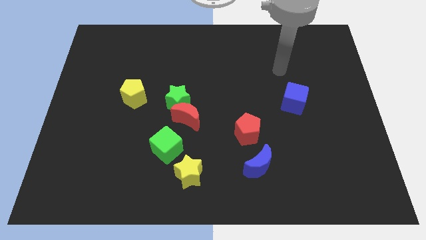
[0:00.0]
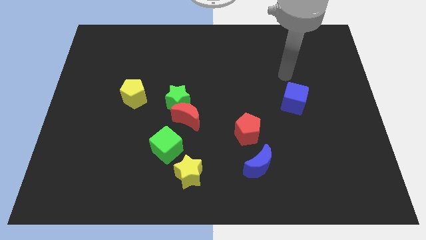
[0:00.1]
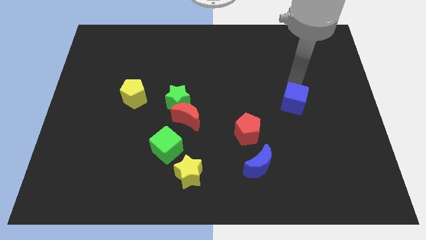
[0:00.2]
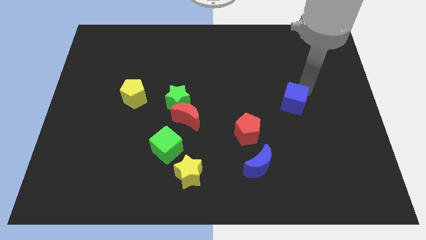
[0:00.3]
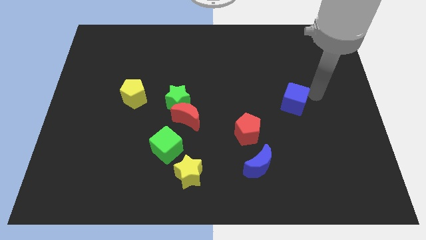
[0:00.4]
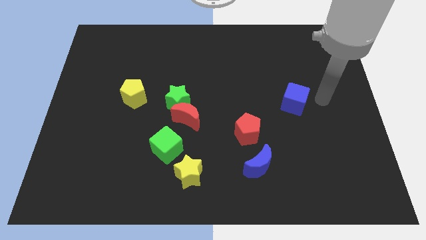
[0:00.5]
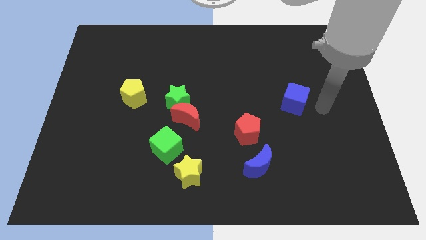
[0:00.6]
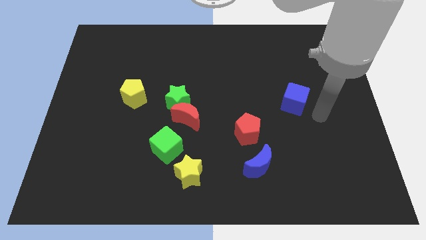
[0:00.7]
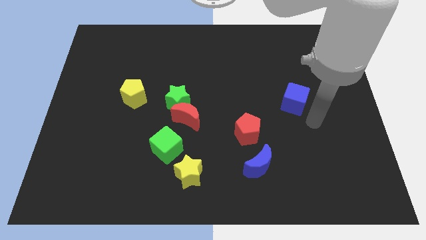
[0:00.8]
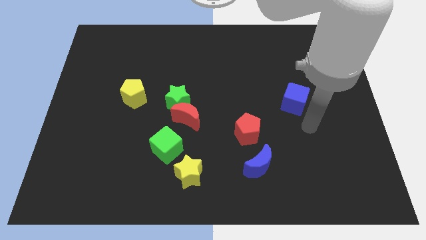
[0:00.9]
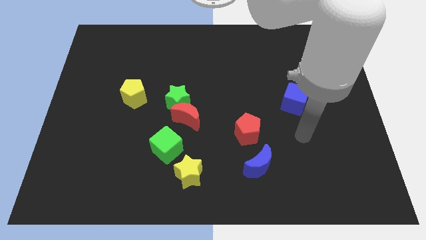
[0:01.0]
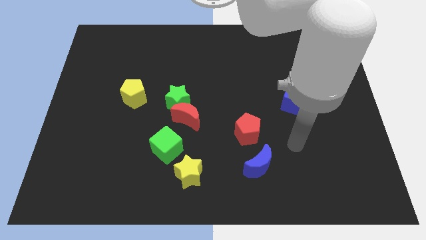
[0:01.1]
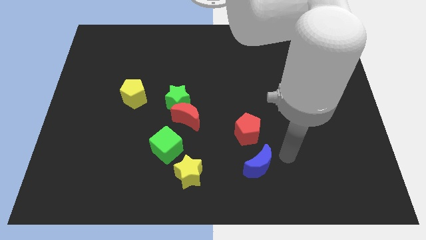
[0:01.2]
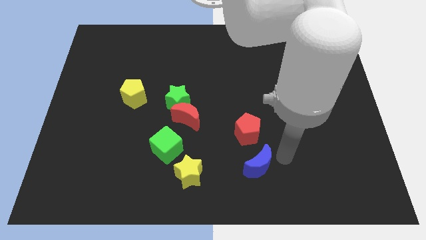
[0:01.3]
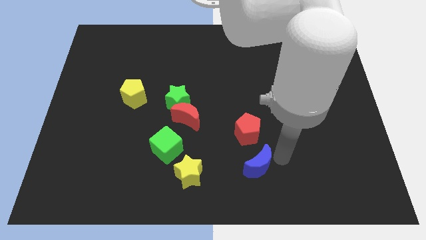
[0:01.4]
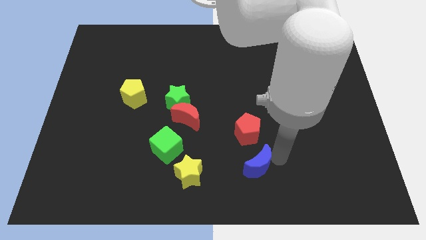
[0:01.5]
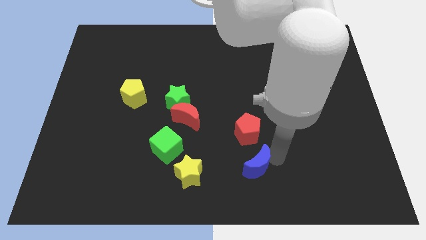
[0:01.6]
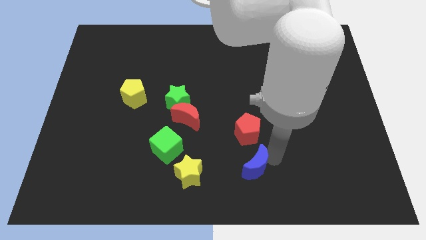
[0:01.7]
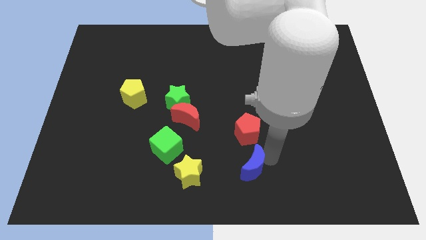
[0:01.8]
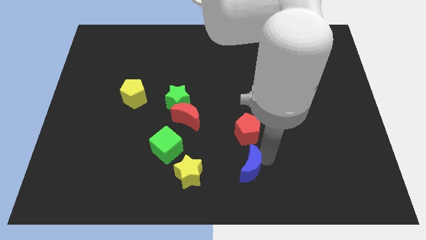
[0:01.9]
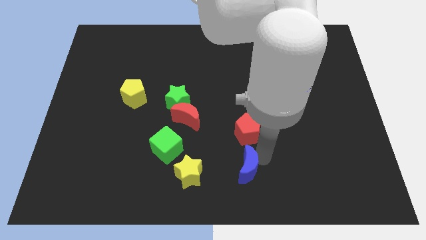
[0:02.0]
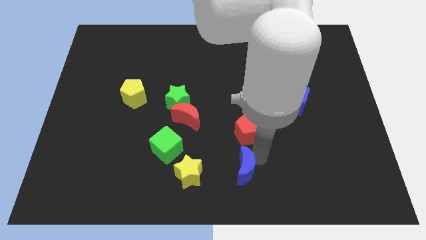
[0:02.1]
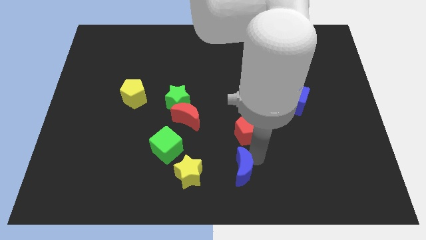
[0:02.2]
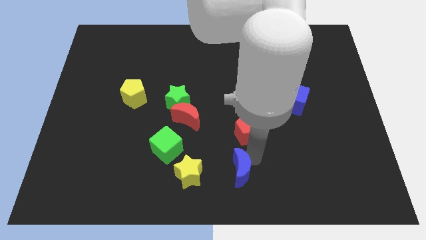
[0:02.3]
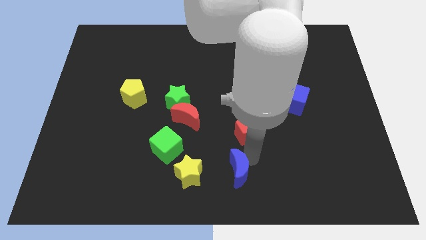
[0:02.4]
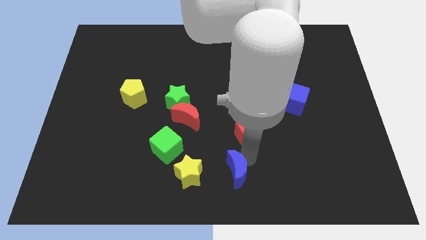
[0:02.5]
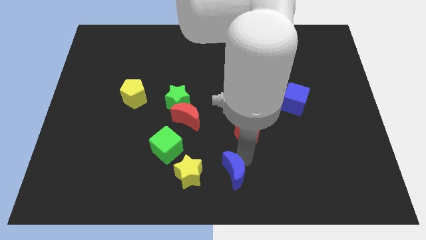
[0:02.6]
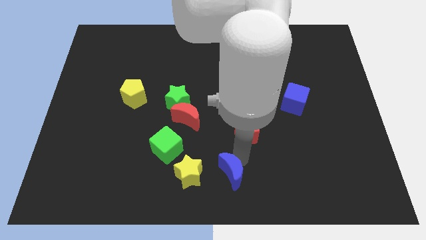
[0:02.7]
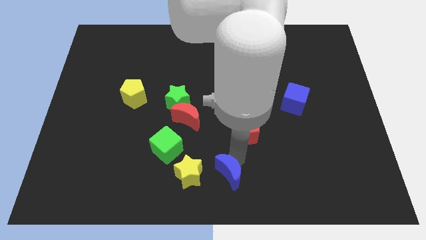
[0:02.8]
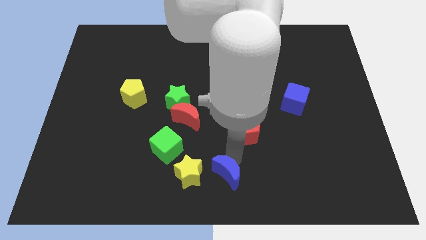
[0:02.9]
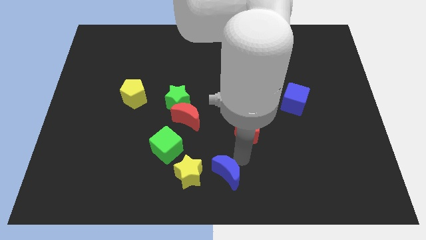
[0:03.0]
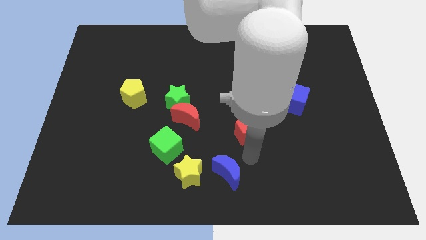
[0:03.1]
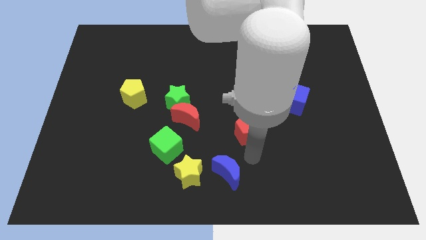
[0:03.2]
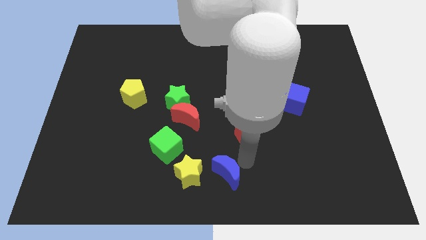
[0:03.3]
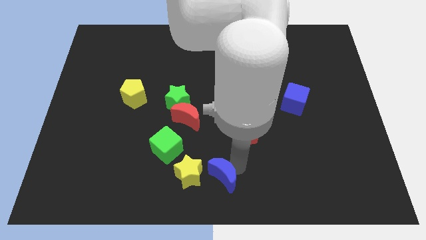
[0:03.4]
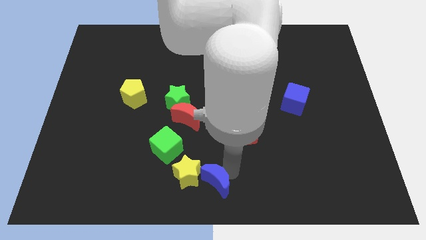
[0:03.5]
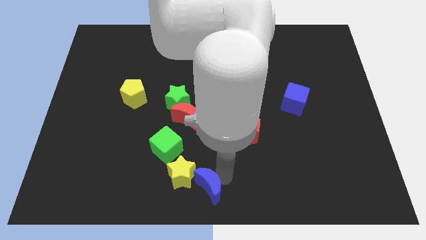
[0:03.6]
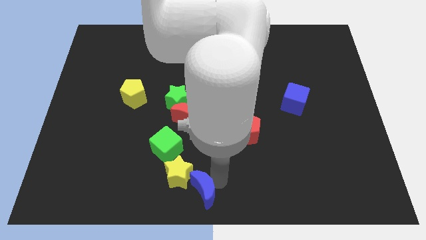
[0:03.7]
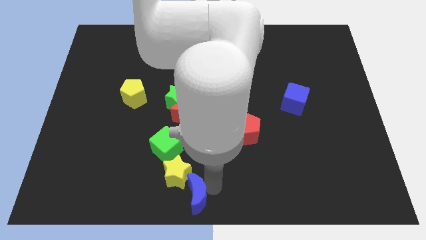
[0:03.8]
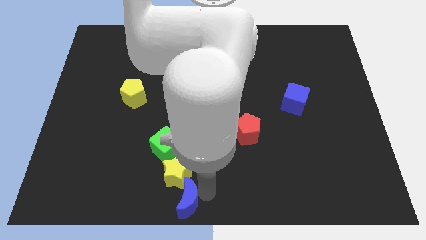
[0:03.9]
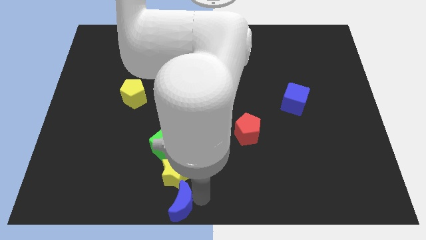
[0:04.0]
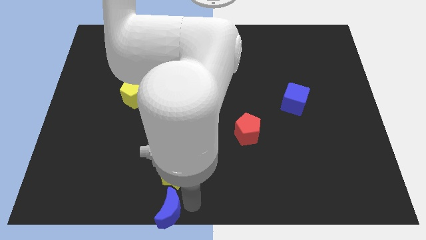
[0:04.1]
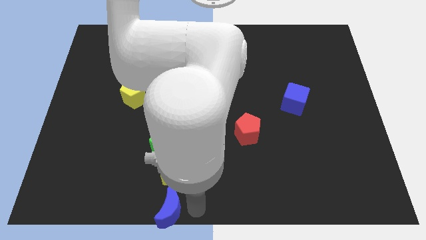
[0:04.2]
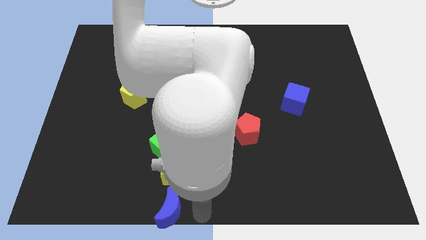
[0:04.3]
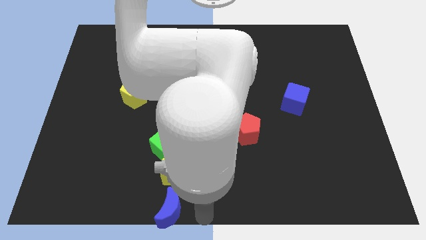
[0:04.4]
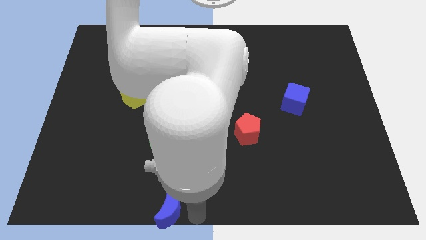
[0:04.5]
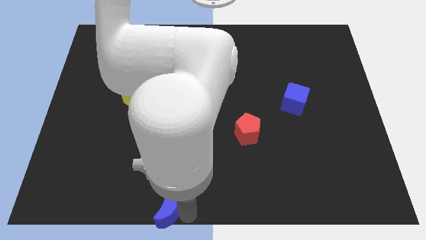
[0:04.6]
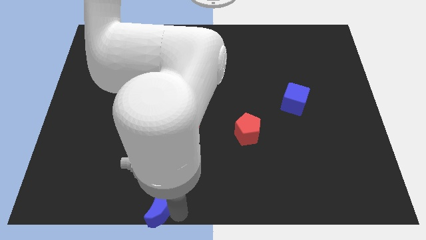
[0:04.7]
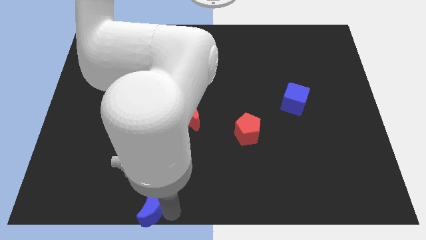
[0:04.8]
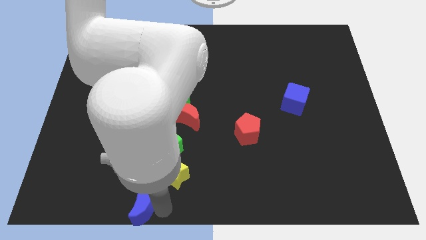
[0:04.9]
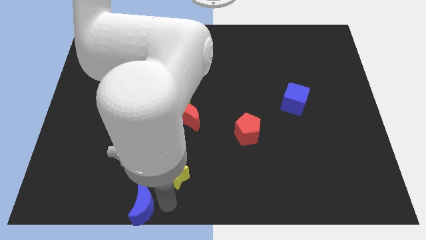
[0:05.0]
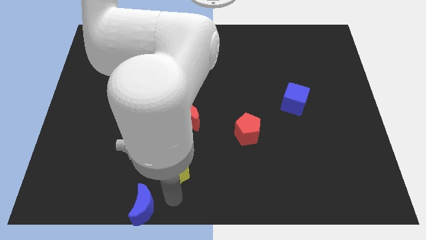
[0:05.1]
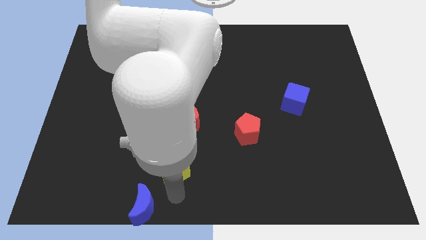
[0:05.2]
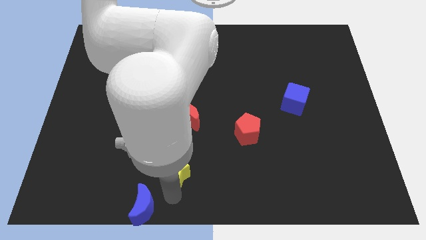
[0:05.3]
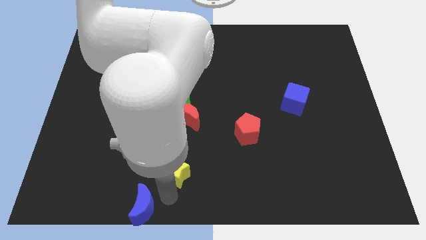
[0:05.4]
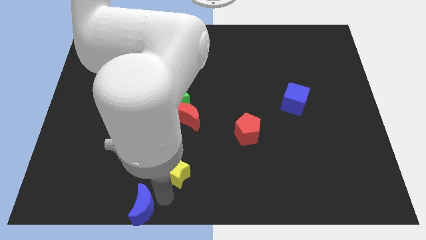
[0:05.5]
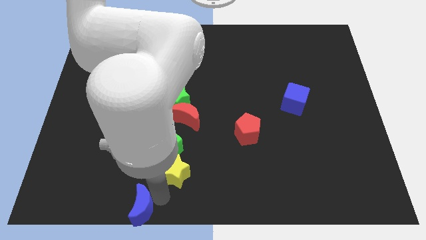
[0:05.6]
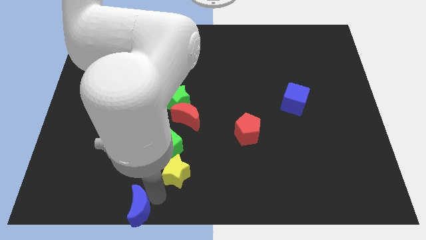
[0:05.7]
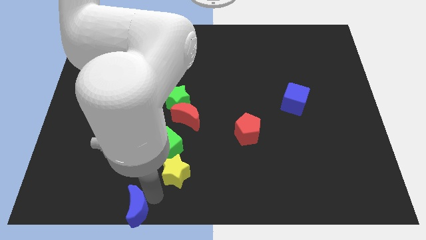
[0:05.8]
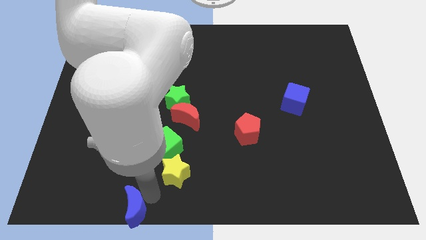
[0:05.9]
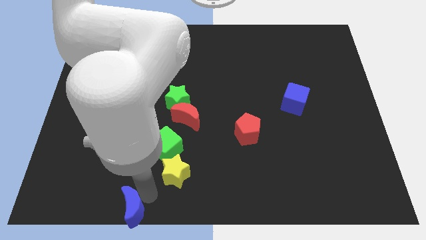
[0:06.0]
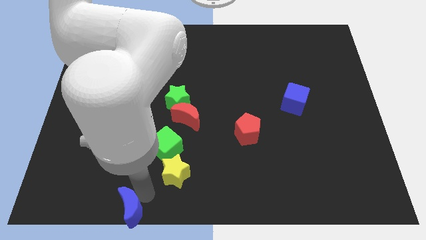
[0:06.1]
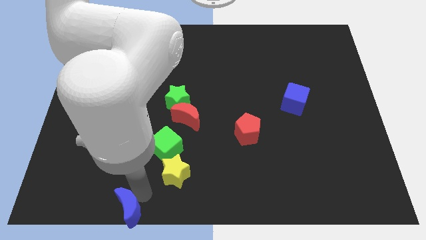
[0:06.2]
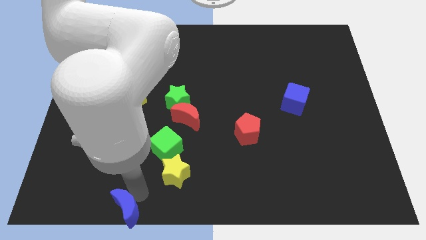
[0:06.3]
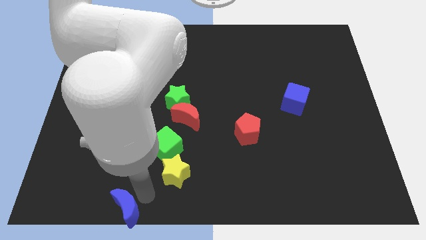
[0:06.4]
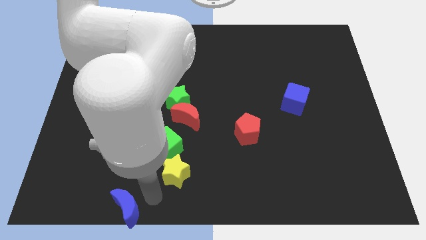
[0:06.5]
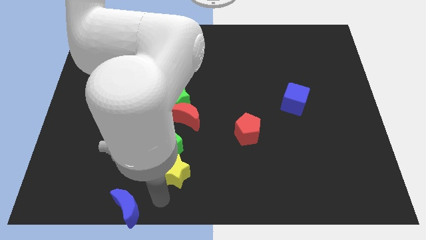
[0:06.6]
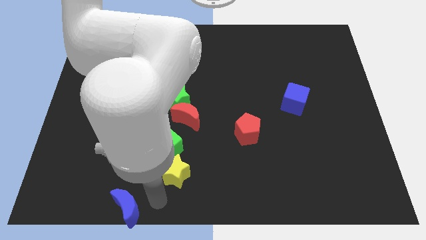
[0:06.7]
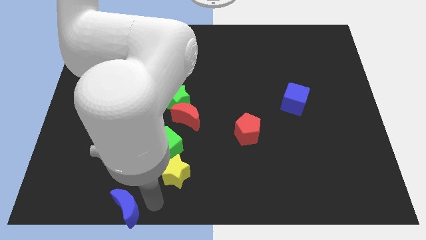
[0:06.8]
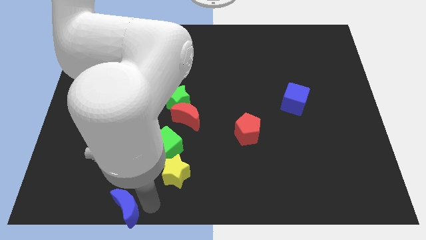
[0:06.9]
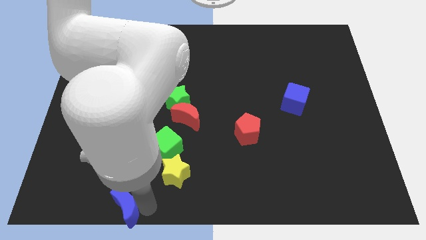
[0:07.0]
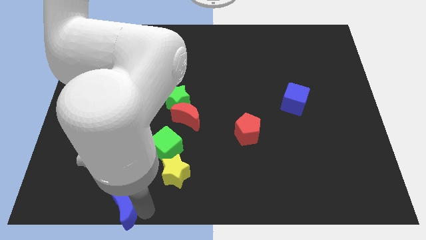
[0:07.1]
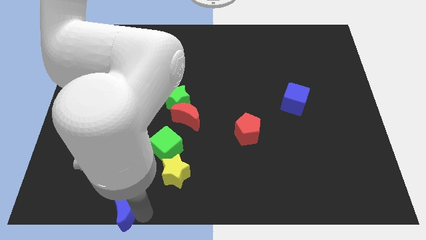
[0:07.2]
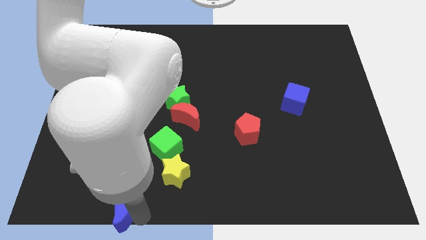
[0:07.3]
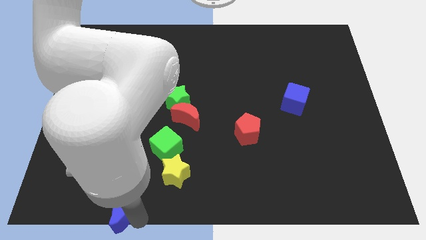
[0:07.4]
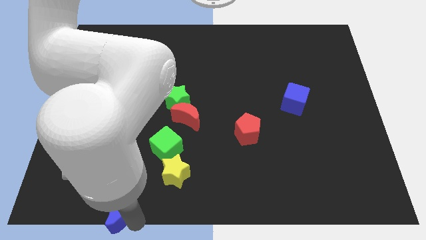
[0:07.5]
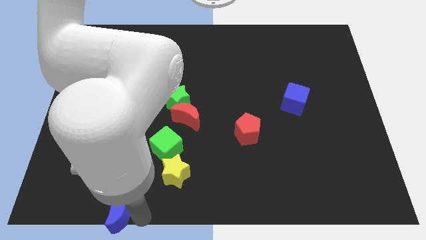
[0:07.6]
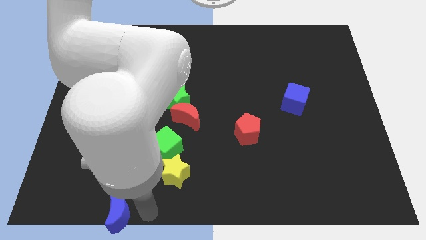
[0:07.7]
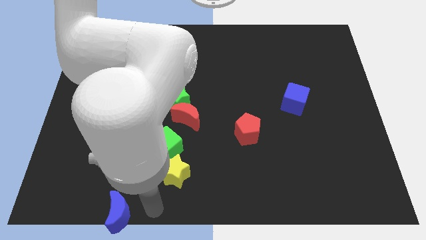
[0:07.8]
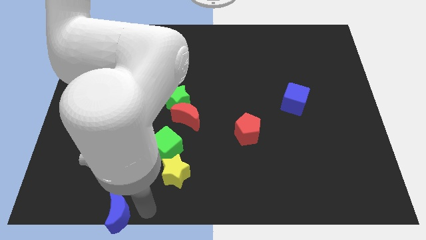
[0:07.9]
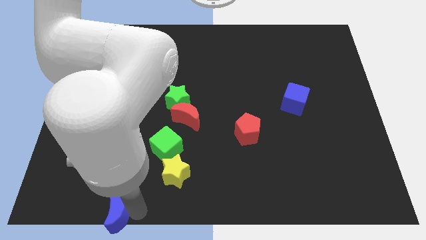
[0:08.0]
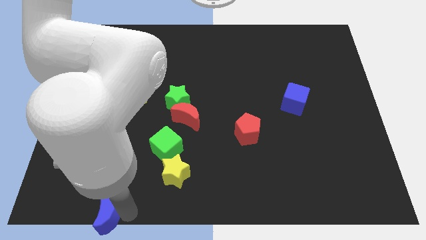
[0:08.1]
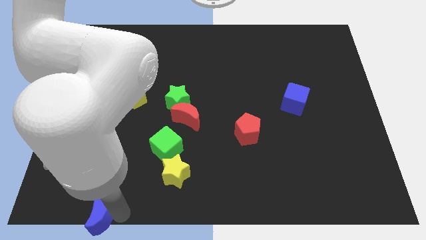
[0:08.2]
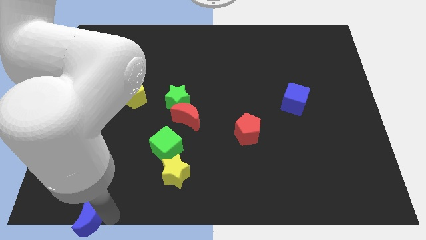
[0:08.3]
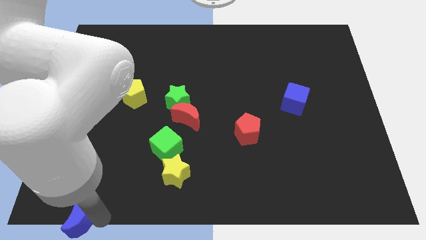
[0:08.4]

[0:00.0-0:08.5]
slide the blue moon to the bottom left corner
